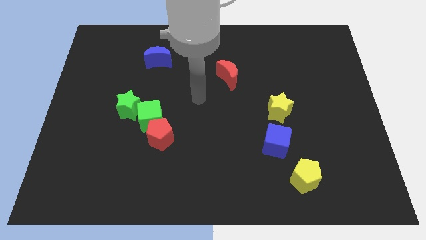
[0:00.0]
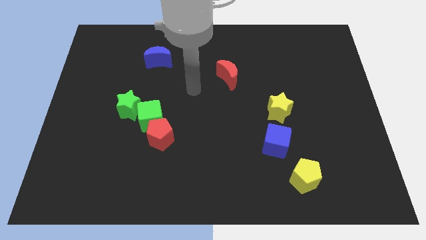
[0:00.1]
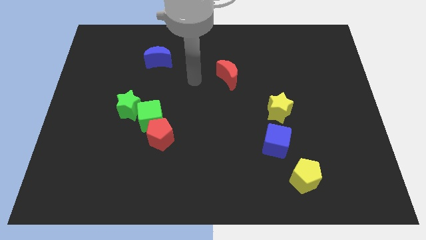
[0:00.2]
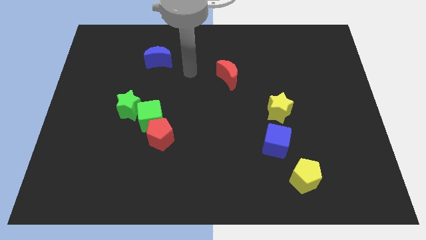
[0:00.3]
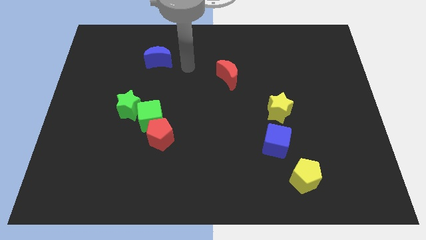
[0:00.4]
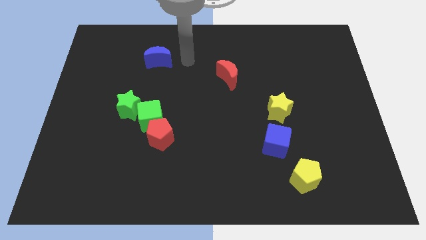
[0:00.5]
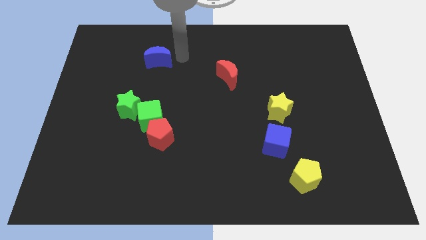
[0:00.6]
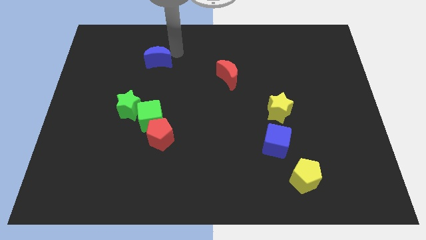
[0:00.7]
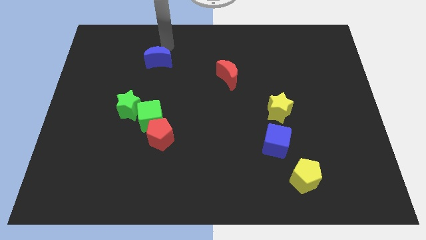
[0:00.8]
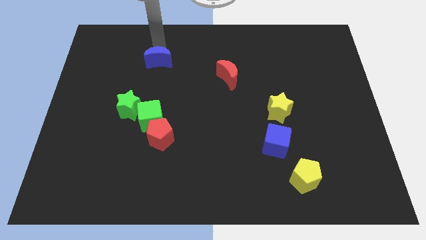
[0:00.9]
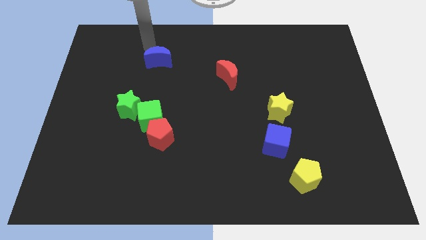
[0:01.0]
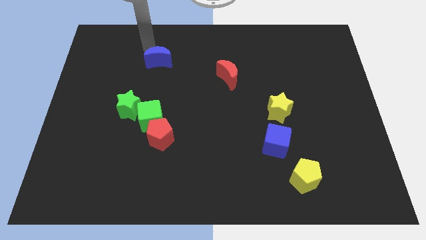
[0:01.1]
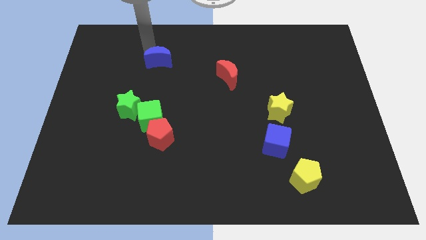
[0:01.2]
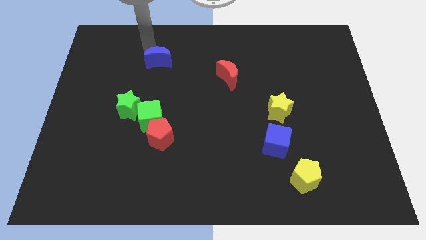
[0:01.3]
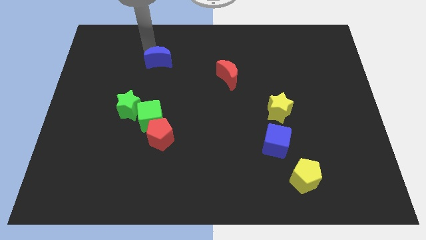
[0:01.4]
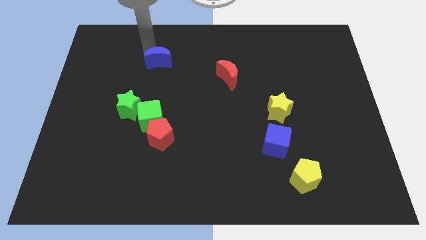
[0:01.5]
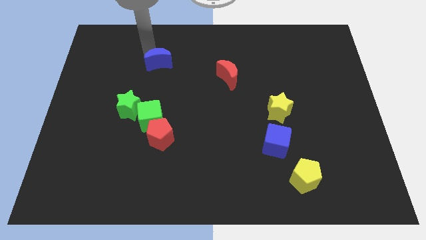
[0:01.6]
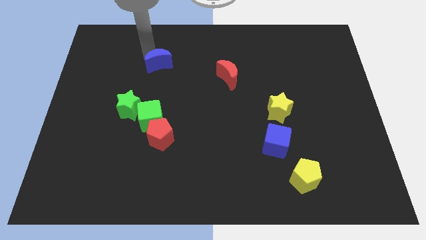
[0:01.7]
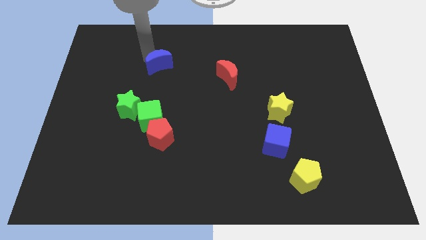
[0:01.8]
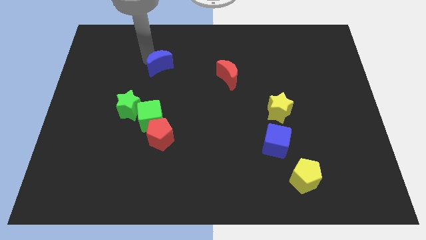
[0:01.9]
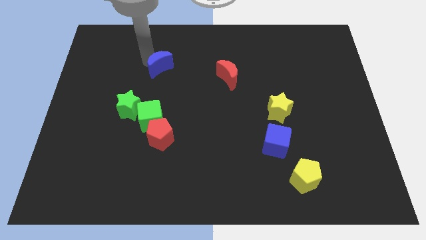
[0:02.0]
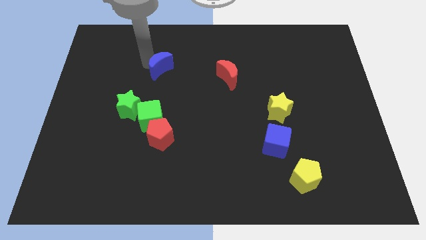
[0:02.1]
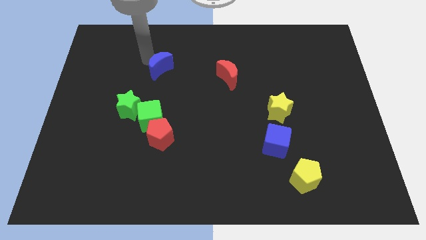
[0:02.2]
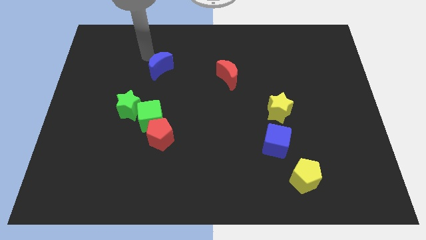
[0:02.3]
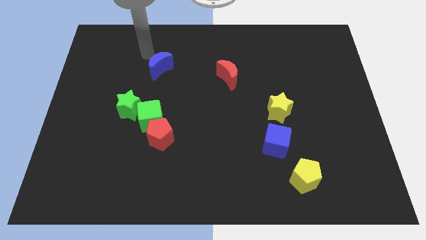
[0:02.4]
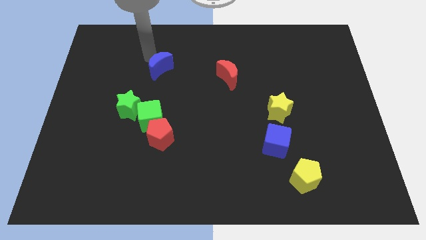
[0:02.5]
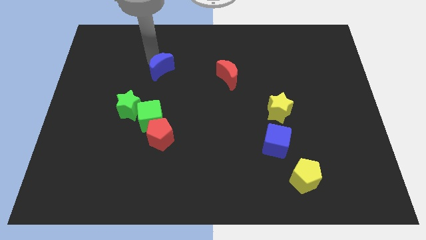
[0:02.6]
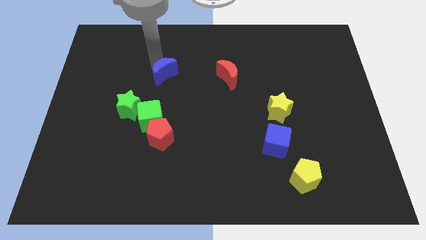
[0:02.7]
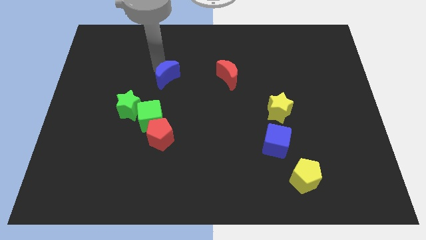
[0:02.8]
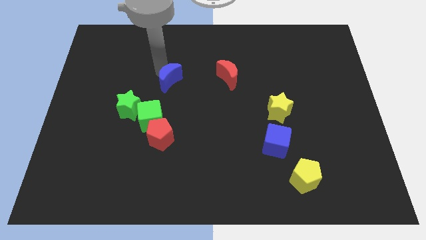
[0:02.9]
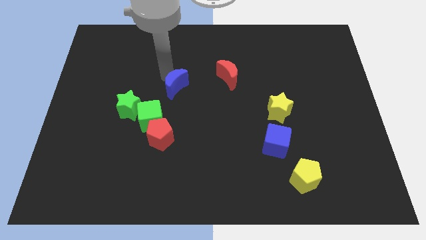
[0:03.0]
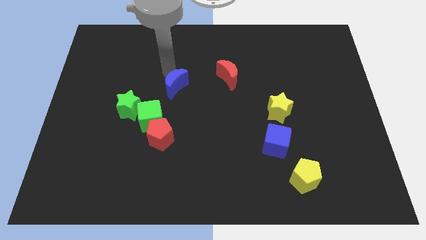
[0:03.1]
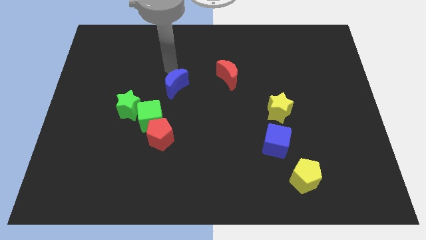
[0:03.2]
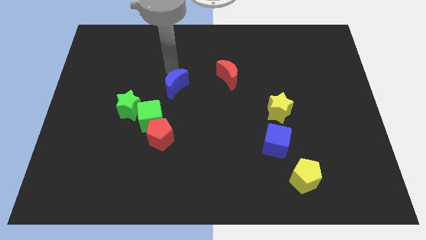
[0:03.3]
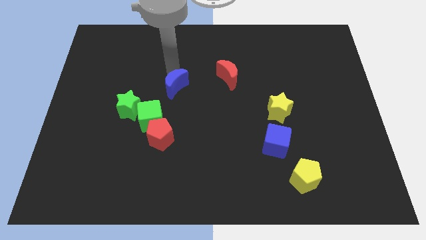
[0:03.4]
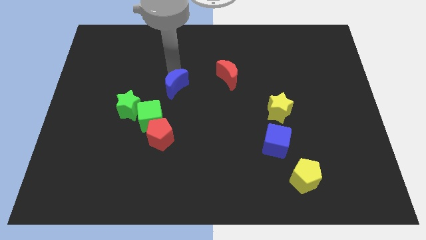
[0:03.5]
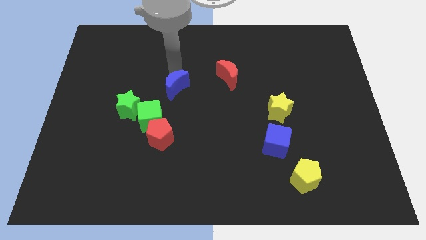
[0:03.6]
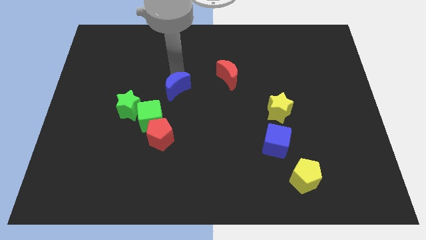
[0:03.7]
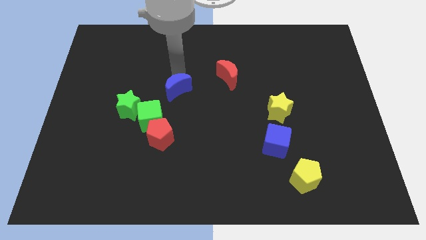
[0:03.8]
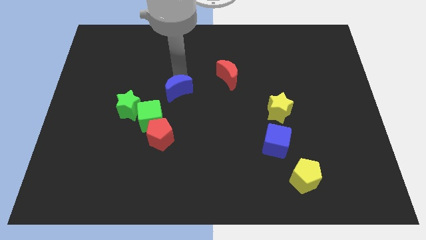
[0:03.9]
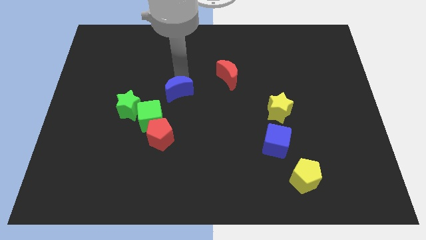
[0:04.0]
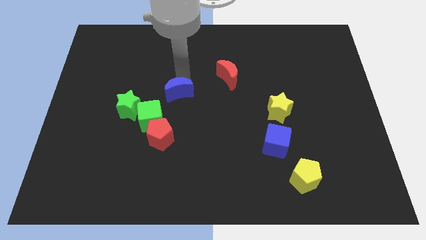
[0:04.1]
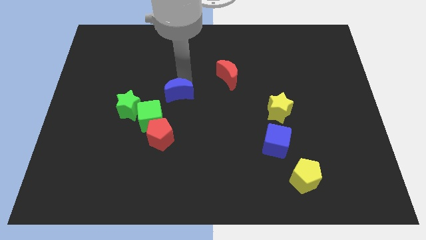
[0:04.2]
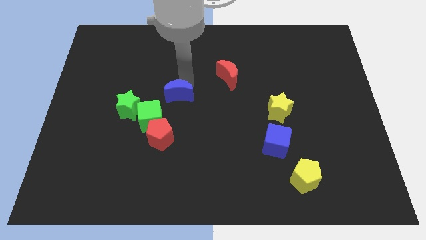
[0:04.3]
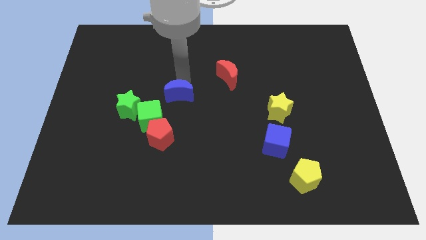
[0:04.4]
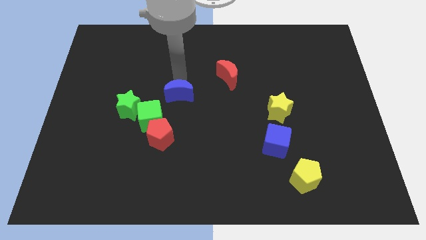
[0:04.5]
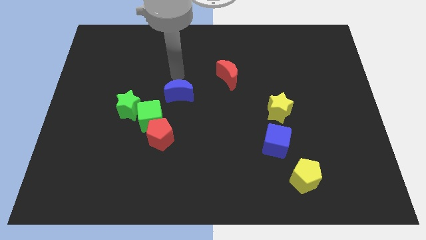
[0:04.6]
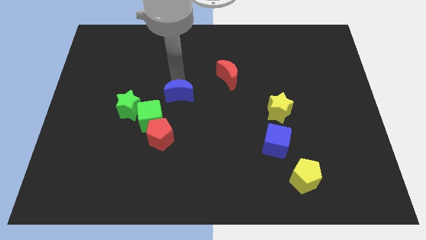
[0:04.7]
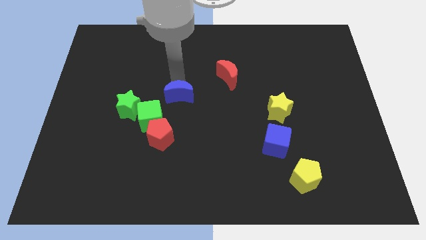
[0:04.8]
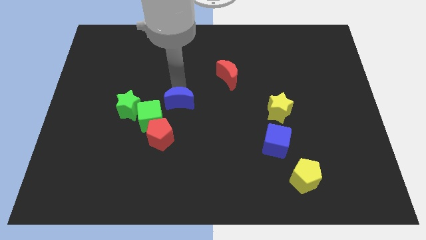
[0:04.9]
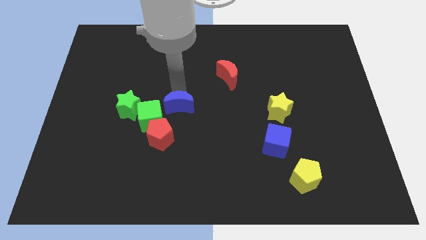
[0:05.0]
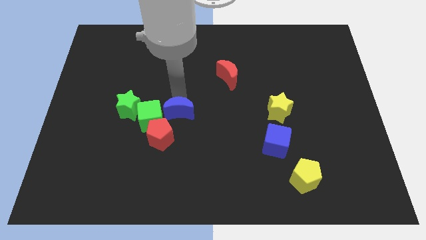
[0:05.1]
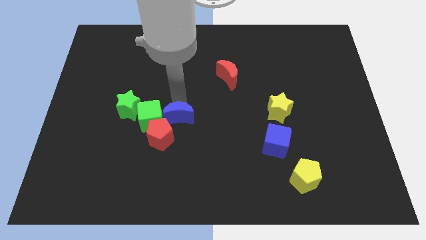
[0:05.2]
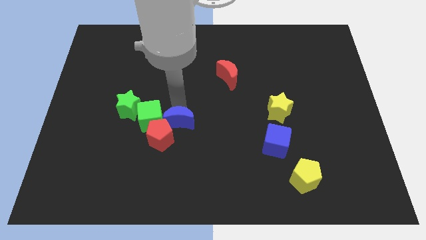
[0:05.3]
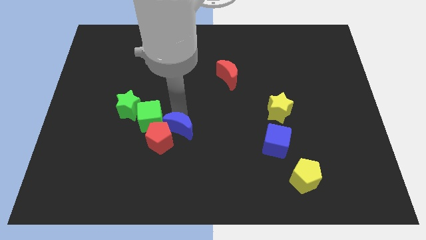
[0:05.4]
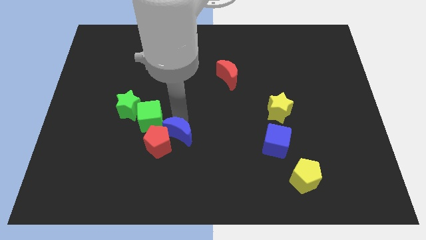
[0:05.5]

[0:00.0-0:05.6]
slide the blue moon down

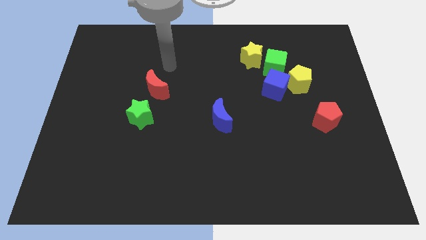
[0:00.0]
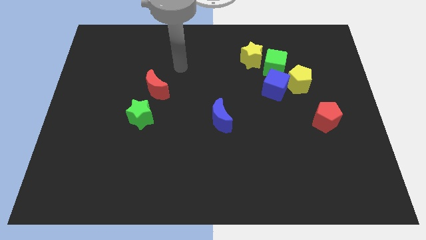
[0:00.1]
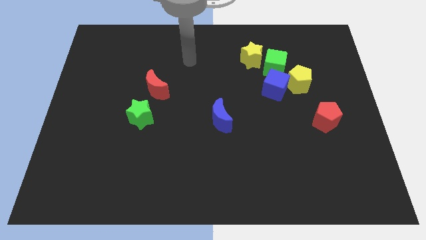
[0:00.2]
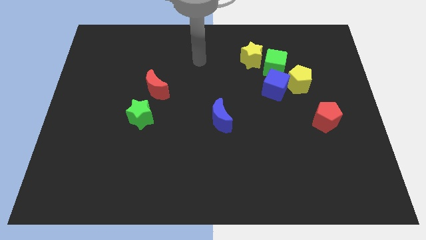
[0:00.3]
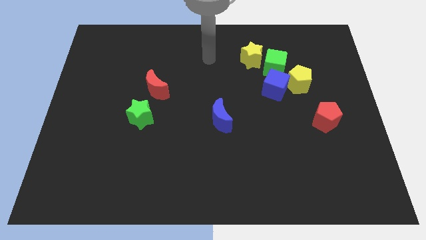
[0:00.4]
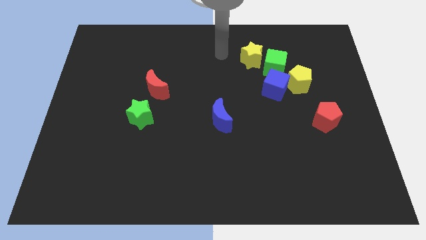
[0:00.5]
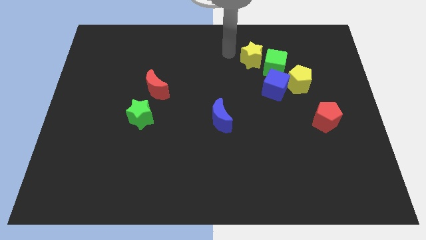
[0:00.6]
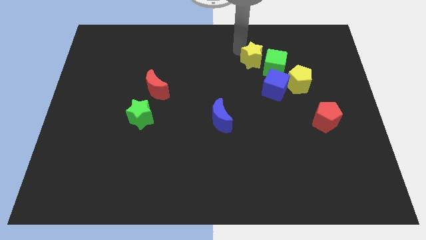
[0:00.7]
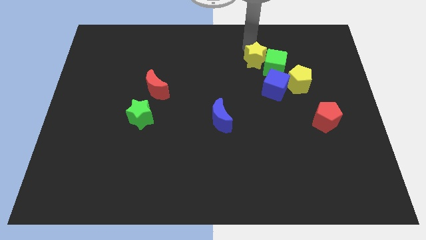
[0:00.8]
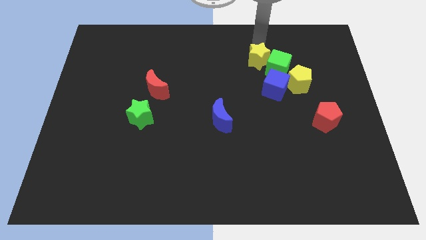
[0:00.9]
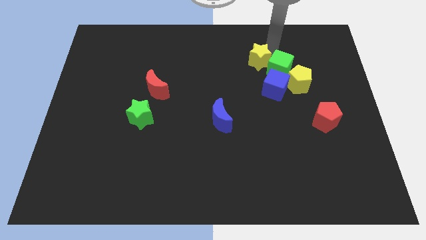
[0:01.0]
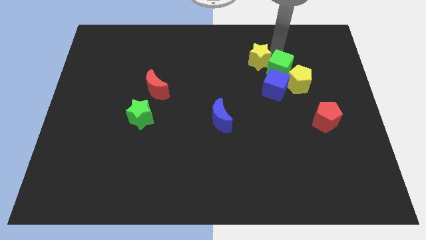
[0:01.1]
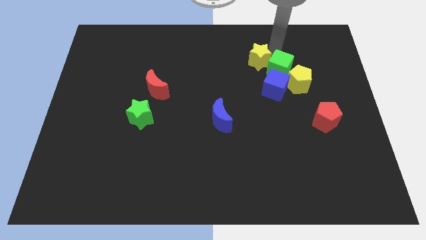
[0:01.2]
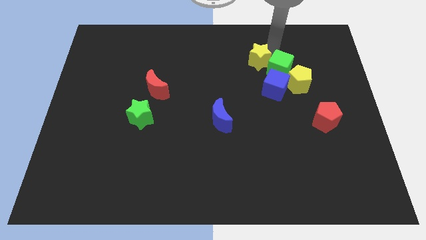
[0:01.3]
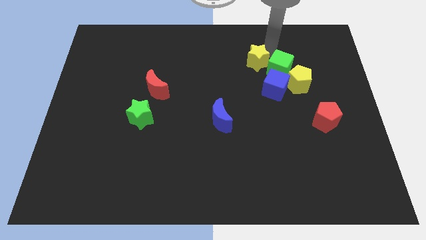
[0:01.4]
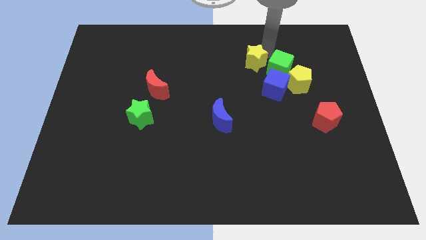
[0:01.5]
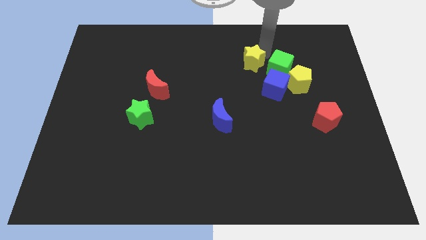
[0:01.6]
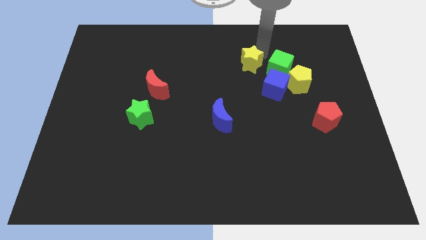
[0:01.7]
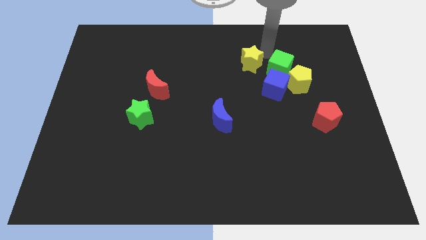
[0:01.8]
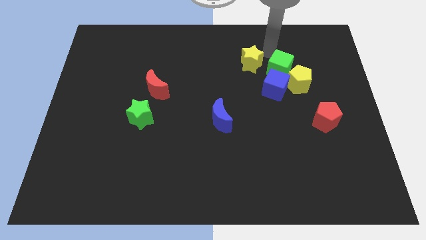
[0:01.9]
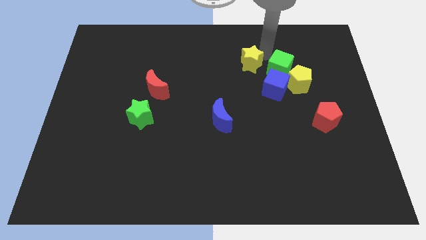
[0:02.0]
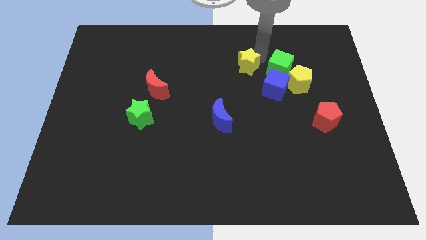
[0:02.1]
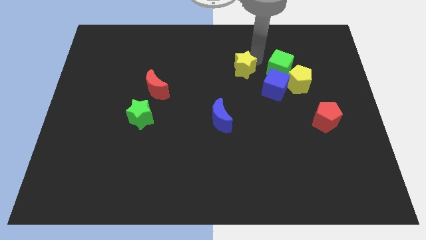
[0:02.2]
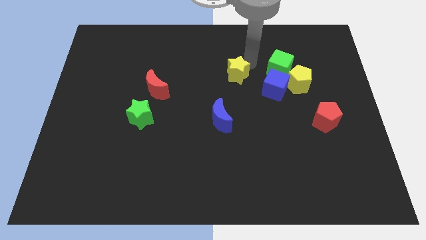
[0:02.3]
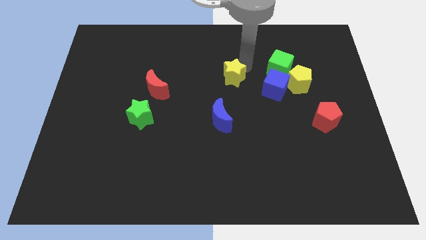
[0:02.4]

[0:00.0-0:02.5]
move the yellow star downwards and then left slightly

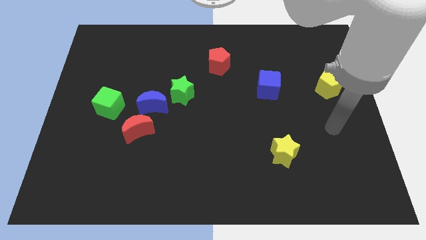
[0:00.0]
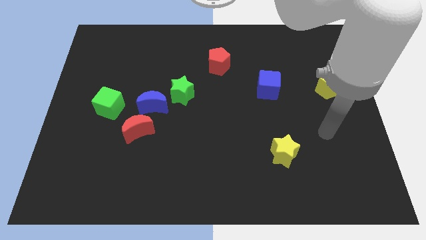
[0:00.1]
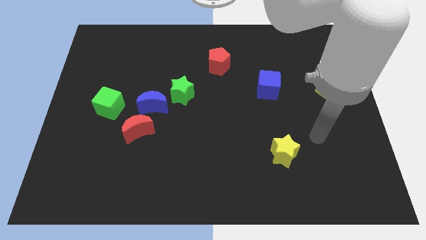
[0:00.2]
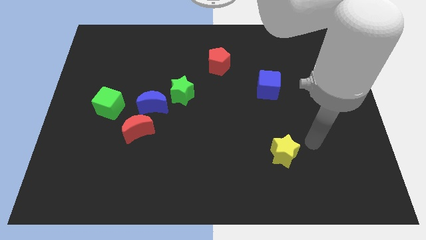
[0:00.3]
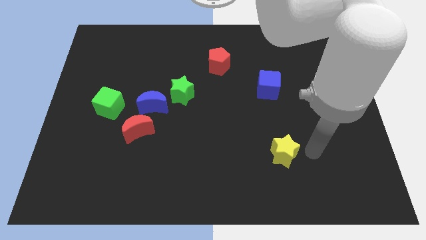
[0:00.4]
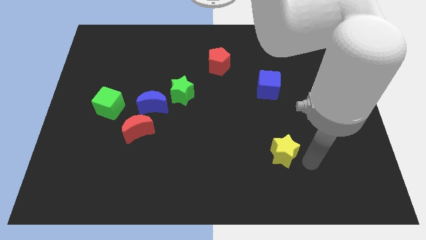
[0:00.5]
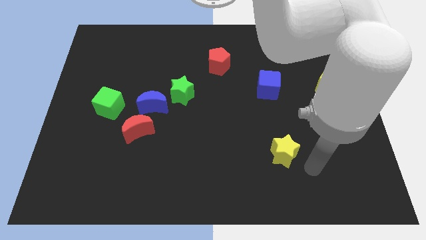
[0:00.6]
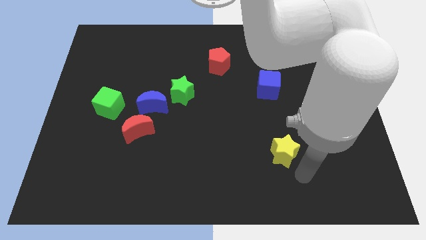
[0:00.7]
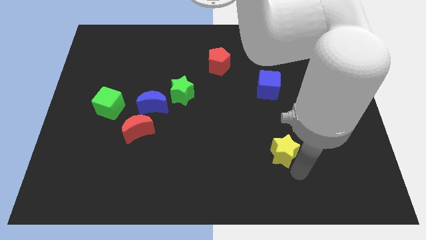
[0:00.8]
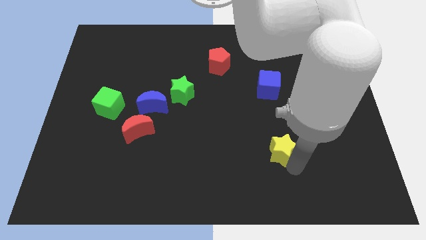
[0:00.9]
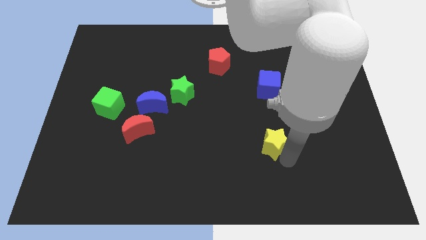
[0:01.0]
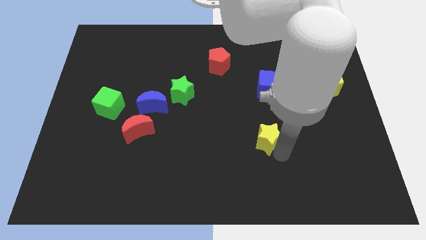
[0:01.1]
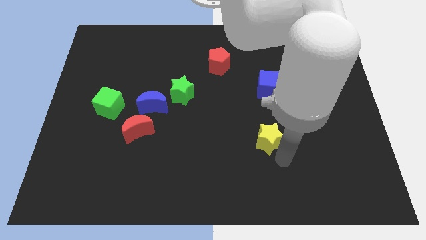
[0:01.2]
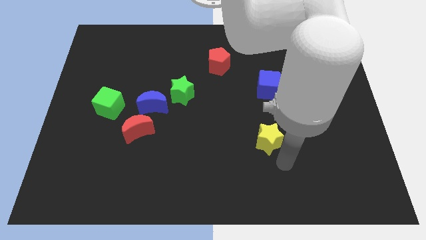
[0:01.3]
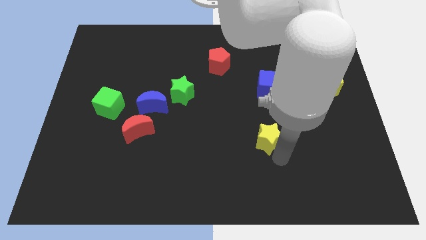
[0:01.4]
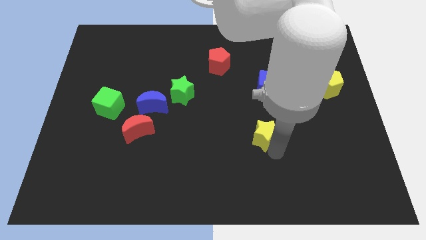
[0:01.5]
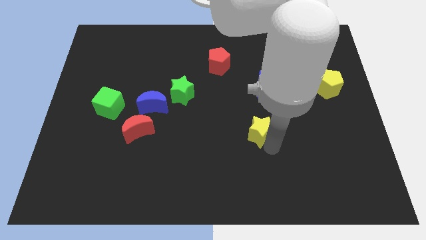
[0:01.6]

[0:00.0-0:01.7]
move the yellow star diagonally up and left a bit
